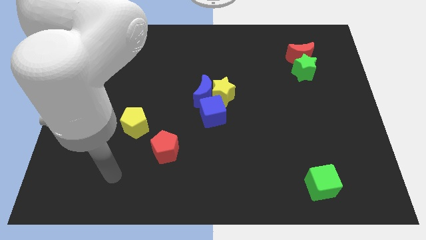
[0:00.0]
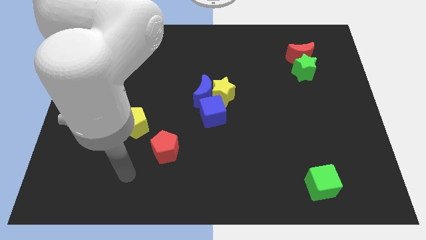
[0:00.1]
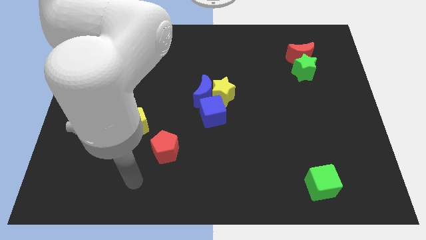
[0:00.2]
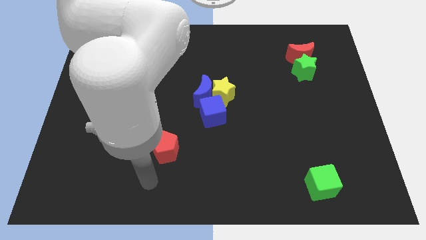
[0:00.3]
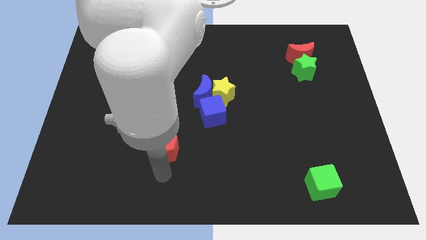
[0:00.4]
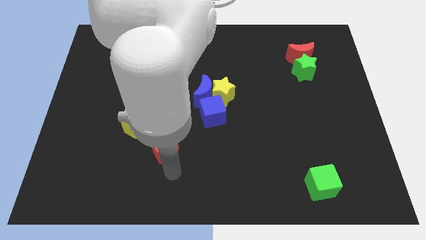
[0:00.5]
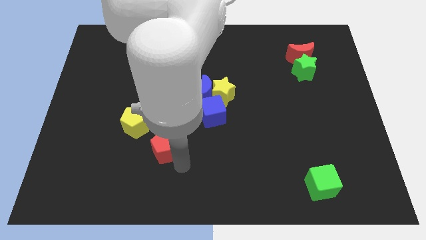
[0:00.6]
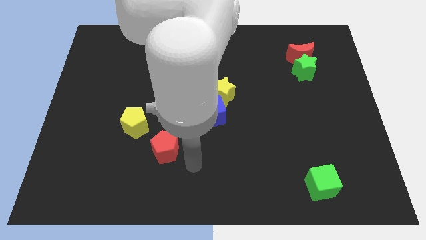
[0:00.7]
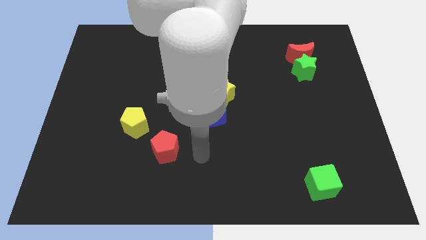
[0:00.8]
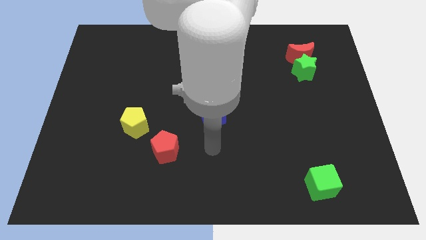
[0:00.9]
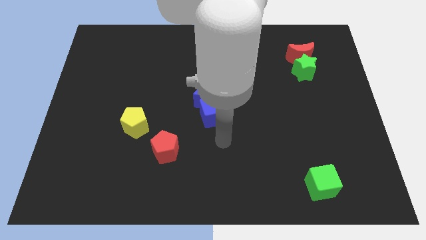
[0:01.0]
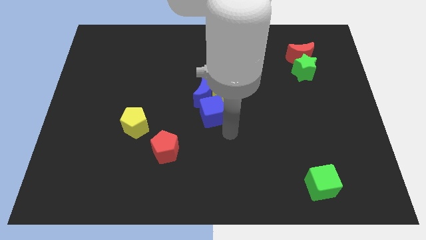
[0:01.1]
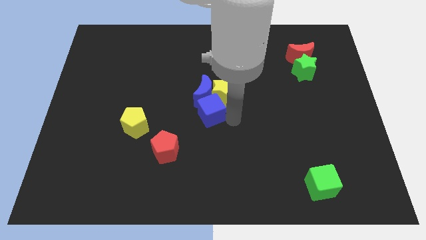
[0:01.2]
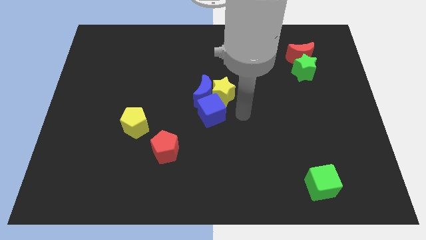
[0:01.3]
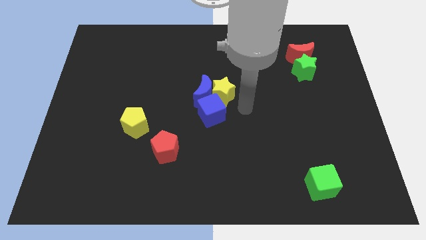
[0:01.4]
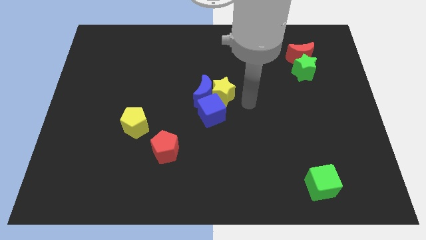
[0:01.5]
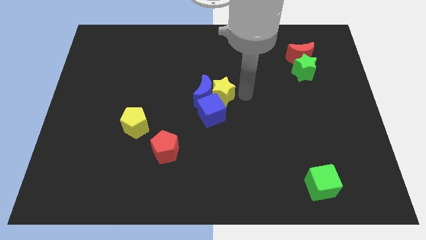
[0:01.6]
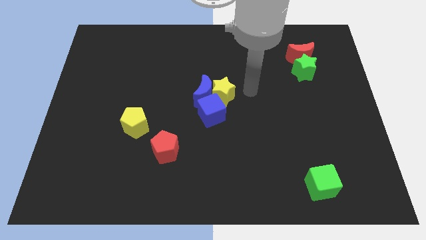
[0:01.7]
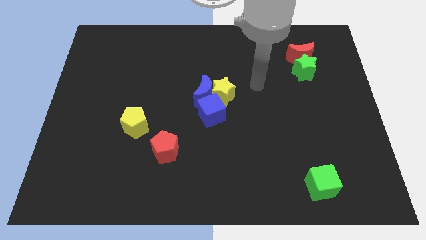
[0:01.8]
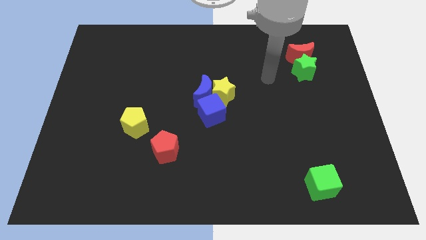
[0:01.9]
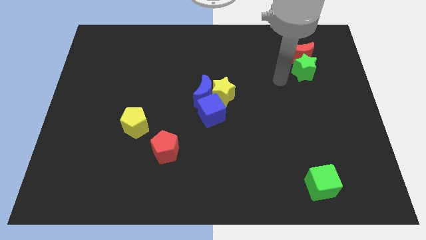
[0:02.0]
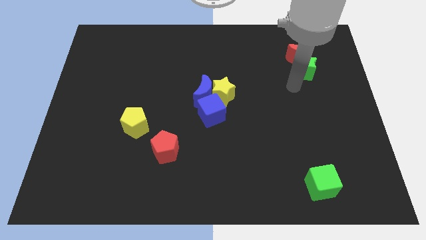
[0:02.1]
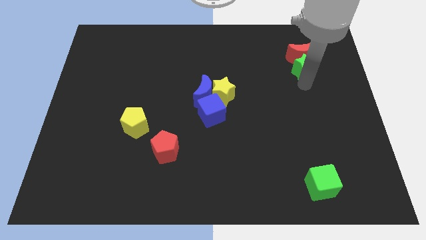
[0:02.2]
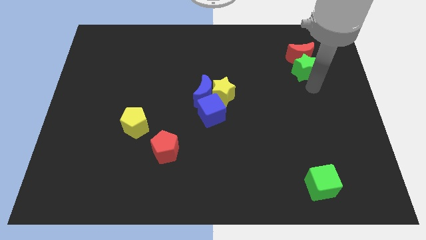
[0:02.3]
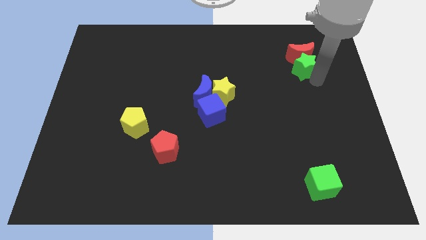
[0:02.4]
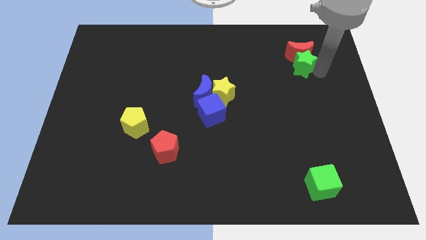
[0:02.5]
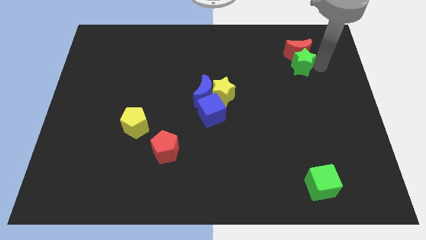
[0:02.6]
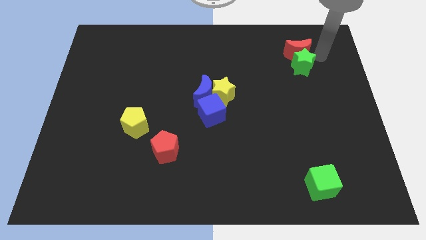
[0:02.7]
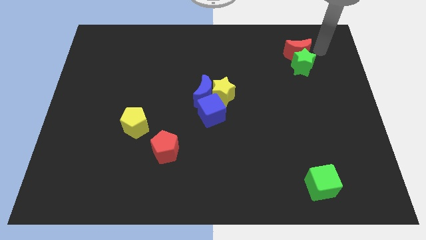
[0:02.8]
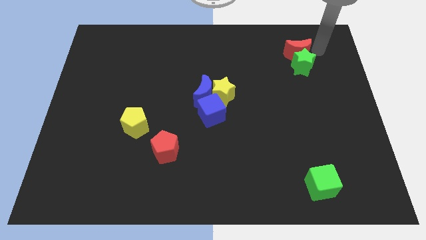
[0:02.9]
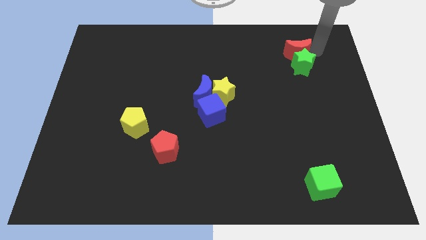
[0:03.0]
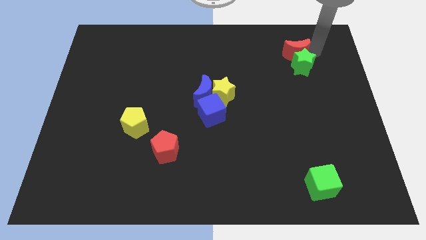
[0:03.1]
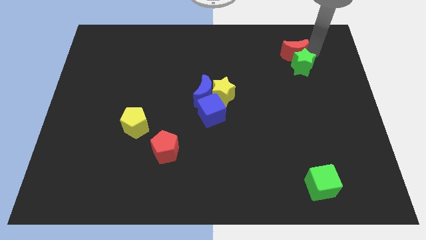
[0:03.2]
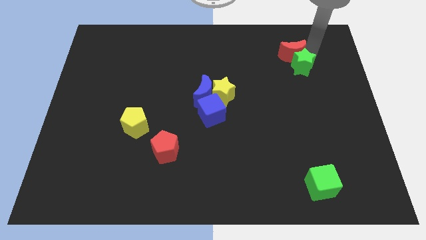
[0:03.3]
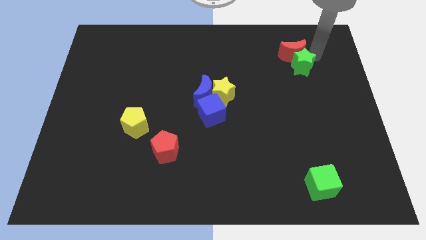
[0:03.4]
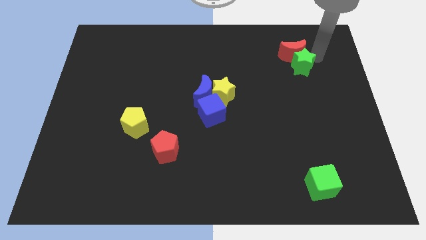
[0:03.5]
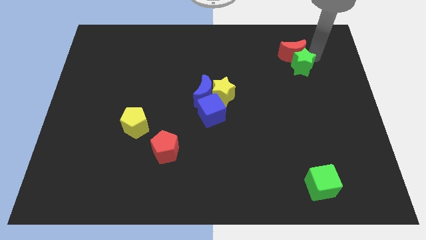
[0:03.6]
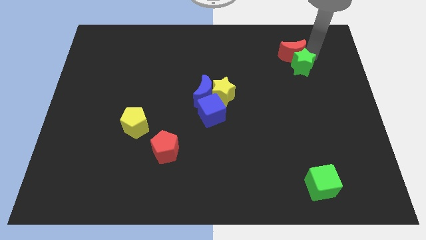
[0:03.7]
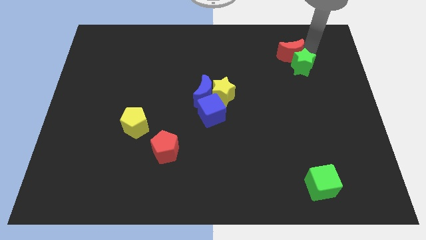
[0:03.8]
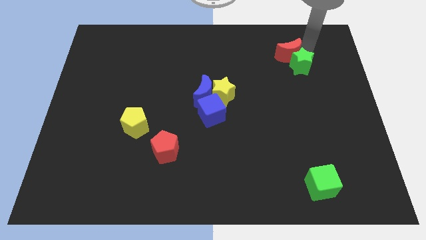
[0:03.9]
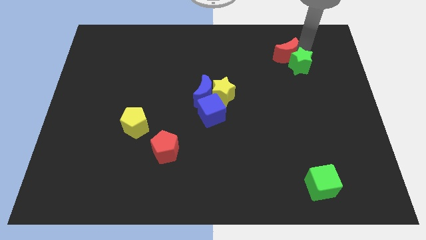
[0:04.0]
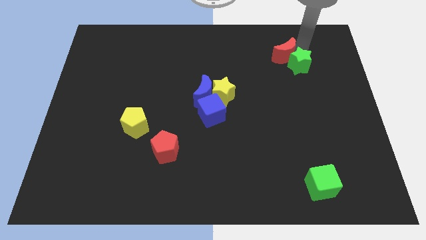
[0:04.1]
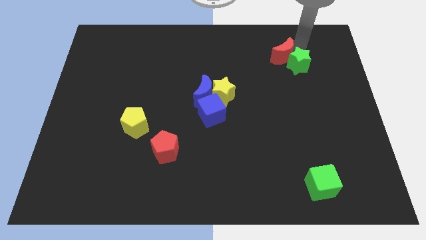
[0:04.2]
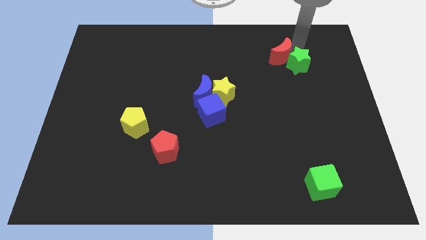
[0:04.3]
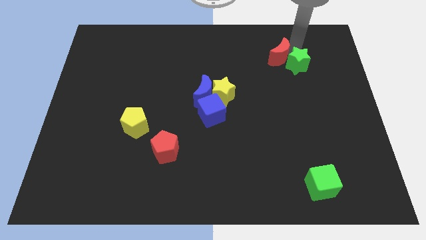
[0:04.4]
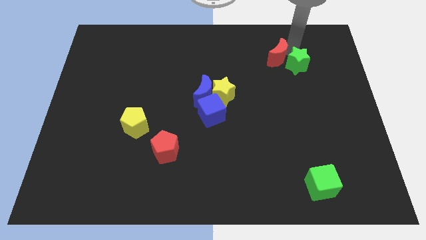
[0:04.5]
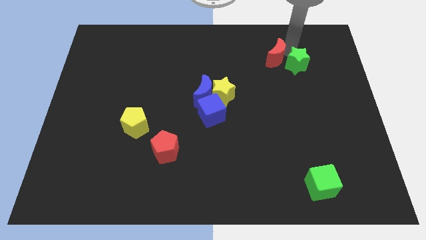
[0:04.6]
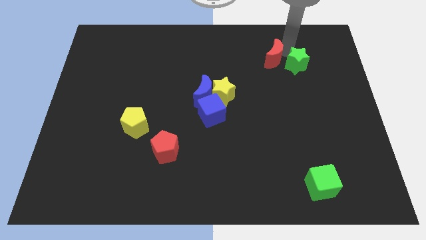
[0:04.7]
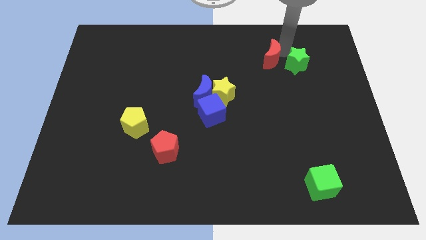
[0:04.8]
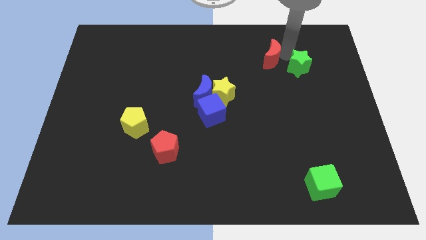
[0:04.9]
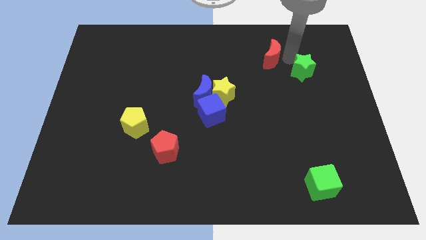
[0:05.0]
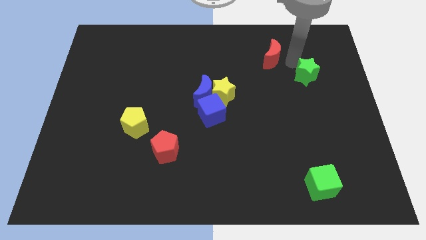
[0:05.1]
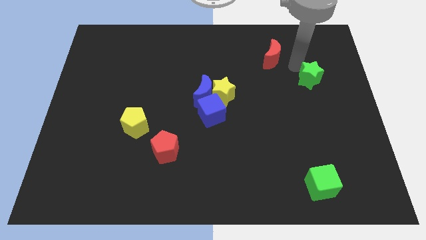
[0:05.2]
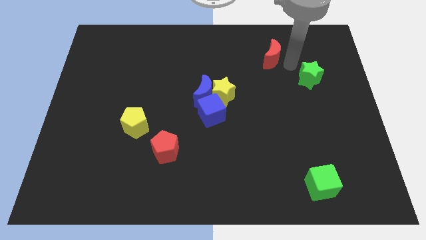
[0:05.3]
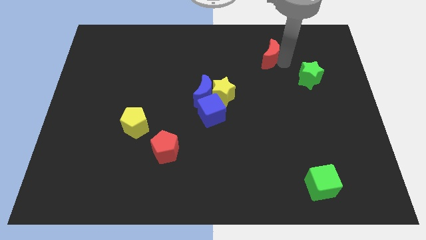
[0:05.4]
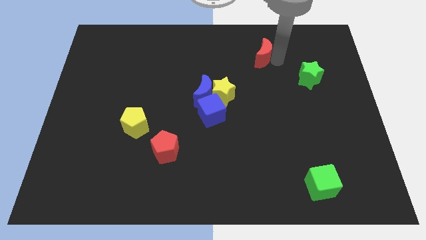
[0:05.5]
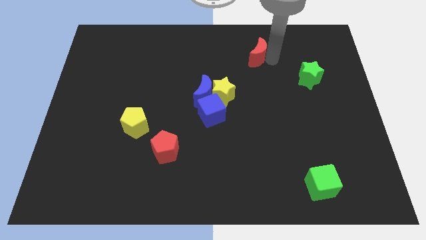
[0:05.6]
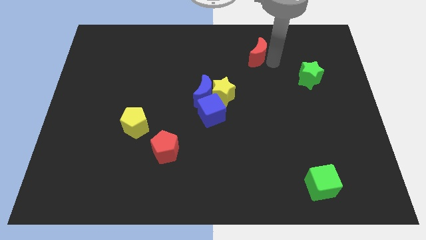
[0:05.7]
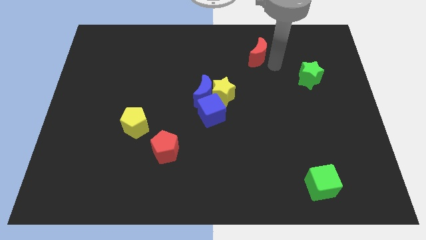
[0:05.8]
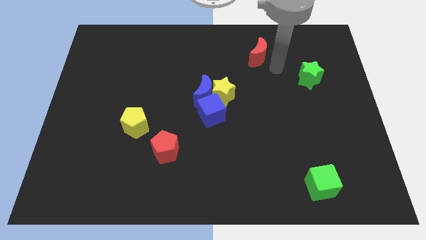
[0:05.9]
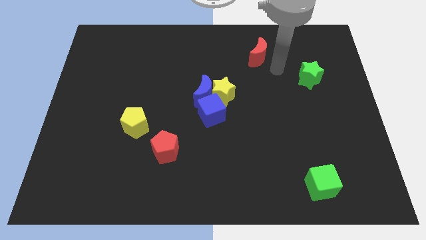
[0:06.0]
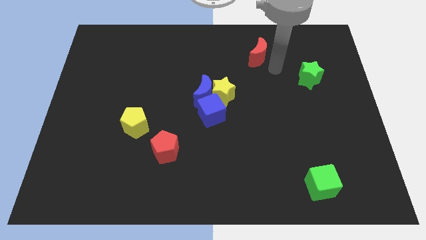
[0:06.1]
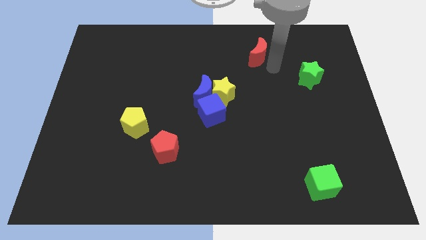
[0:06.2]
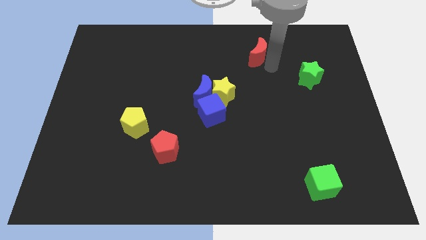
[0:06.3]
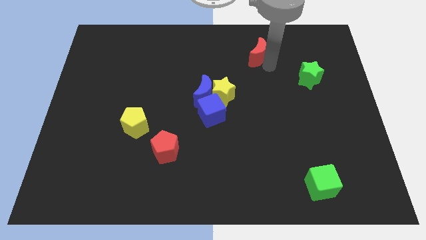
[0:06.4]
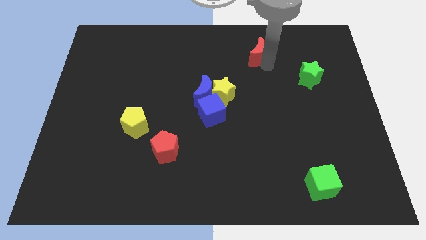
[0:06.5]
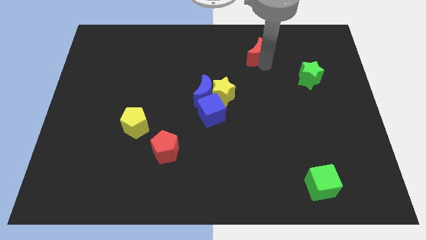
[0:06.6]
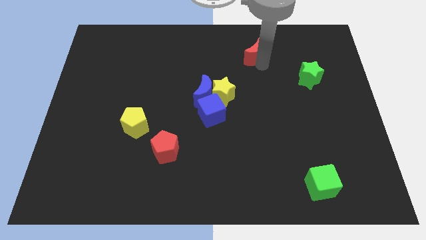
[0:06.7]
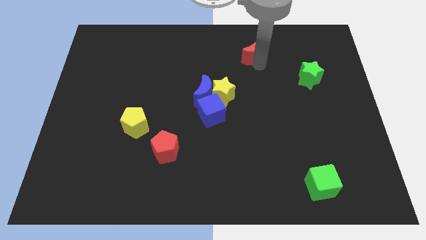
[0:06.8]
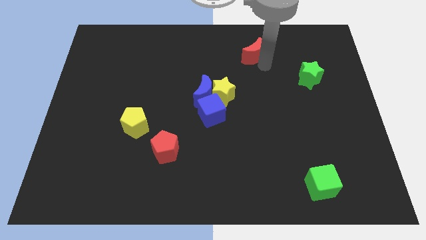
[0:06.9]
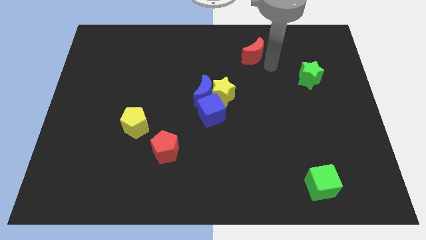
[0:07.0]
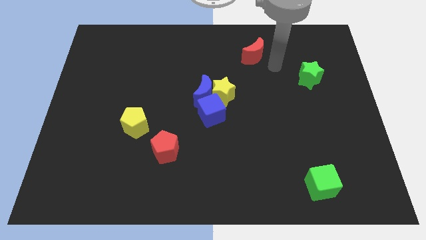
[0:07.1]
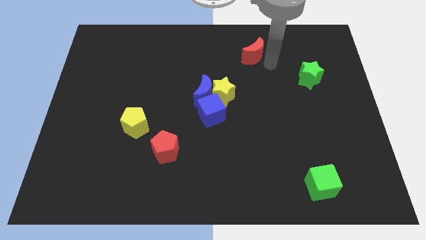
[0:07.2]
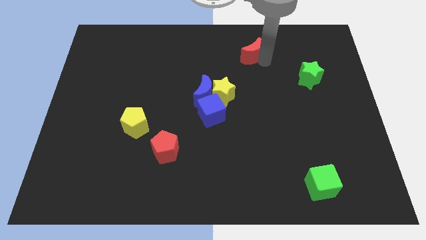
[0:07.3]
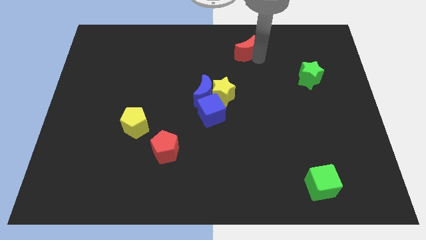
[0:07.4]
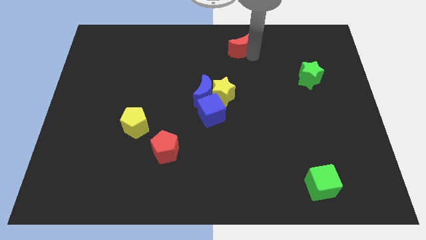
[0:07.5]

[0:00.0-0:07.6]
move the red moon to the top
